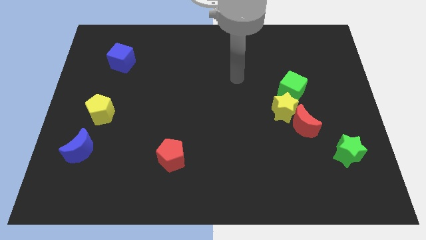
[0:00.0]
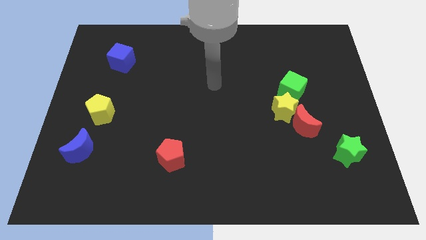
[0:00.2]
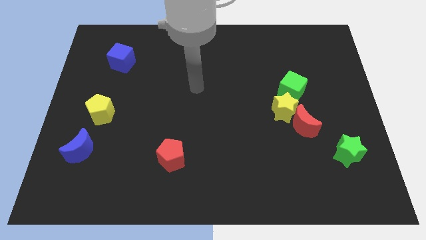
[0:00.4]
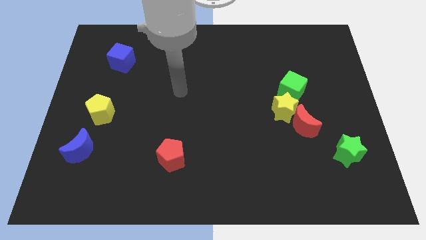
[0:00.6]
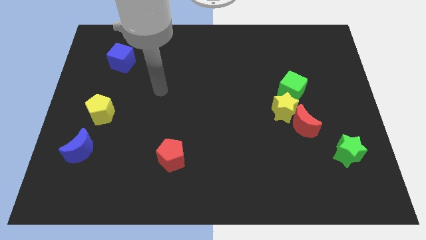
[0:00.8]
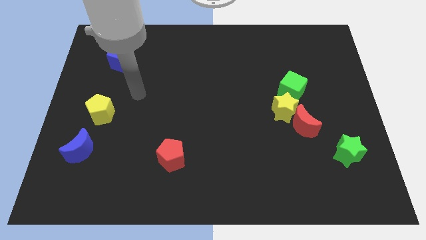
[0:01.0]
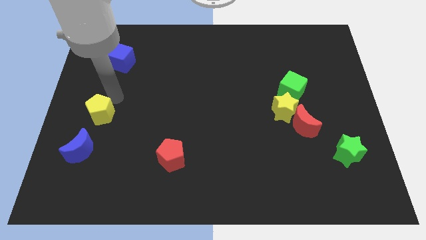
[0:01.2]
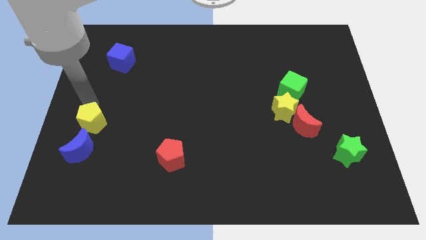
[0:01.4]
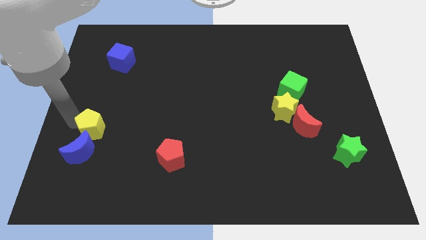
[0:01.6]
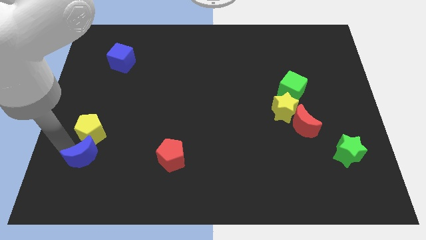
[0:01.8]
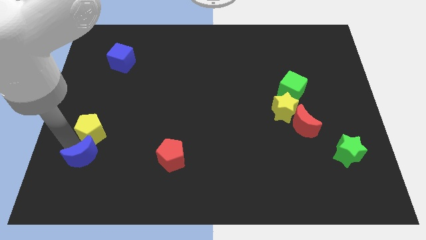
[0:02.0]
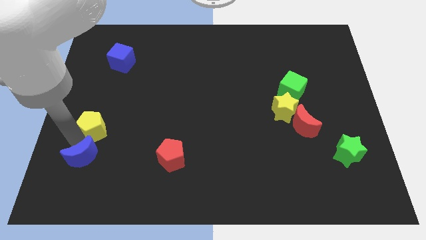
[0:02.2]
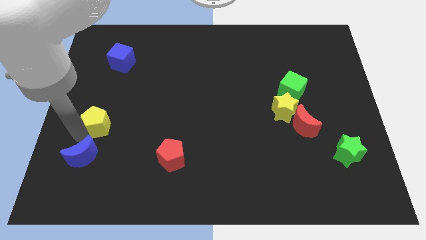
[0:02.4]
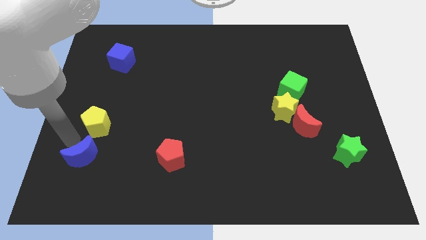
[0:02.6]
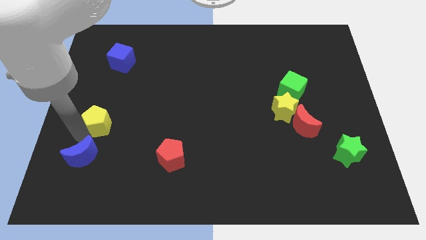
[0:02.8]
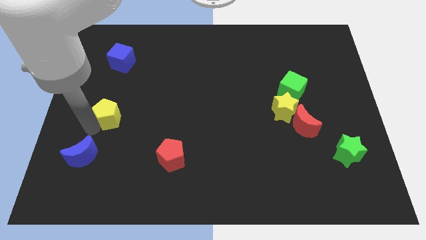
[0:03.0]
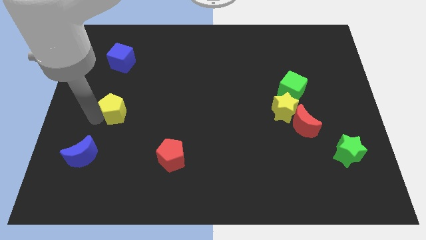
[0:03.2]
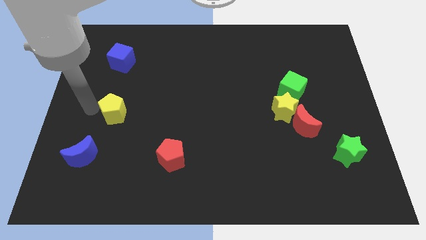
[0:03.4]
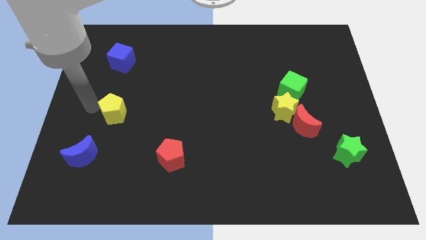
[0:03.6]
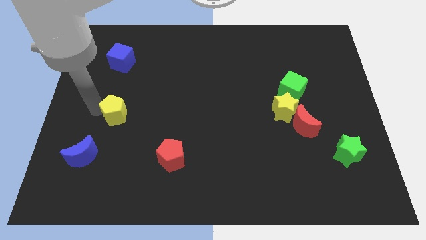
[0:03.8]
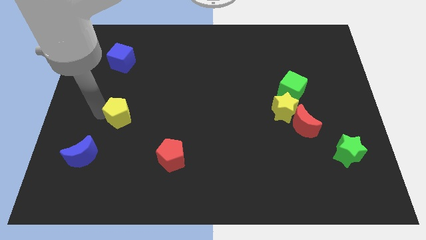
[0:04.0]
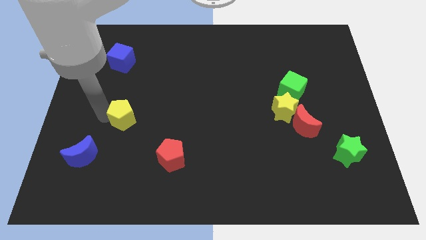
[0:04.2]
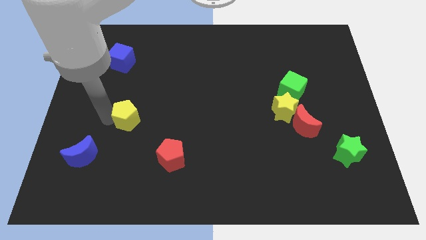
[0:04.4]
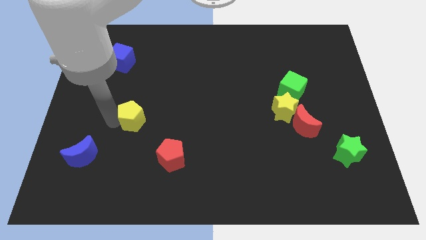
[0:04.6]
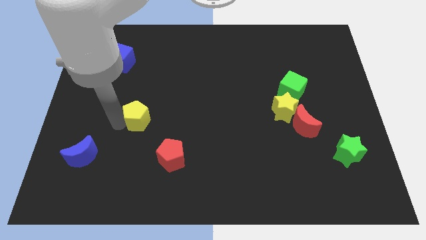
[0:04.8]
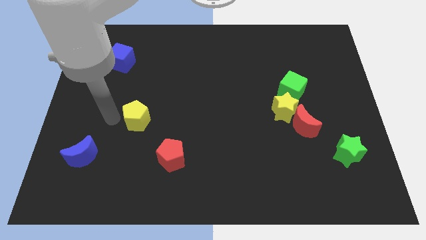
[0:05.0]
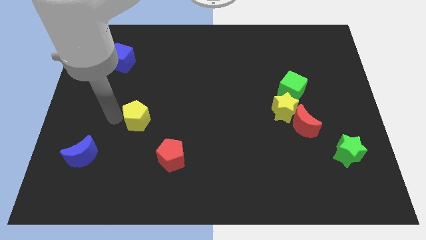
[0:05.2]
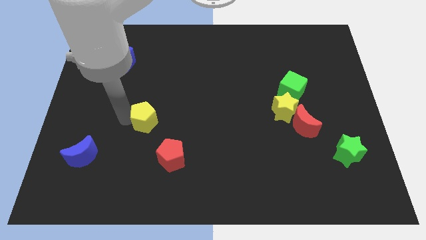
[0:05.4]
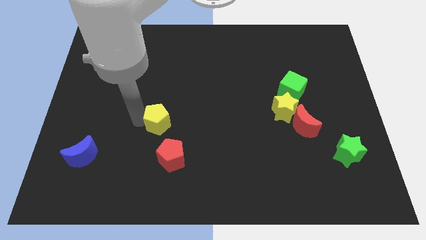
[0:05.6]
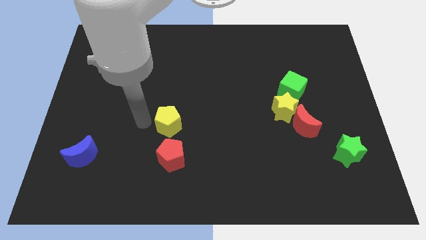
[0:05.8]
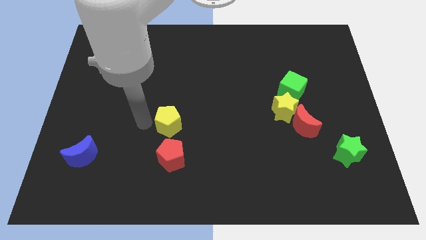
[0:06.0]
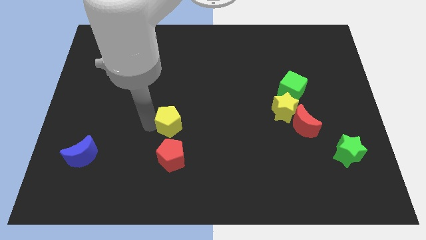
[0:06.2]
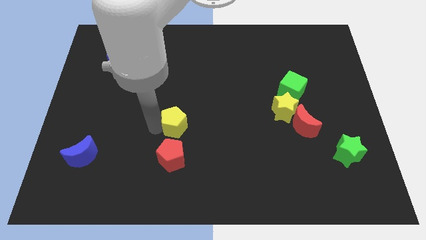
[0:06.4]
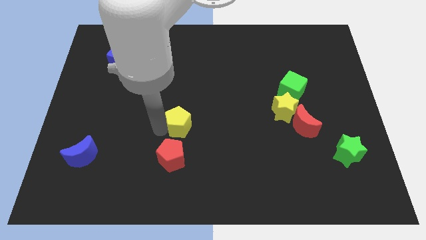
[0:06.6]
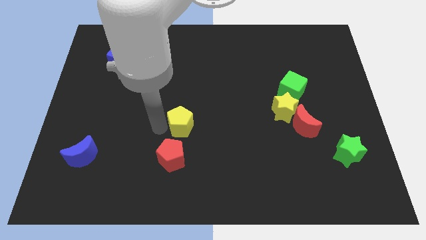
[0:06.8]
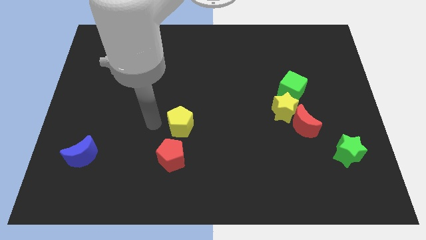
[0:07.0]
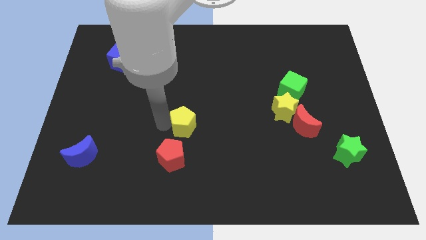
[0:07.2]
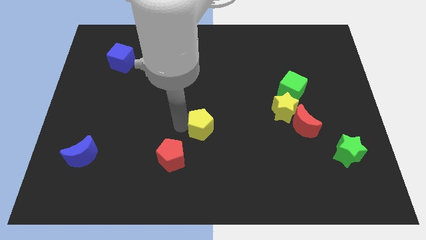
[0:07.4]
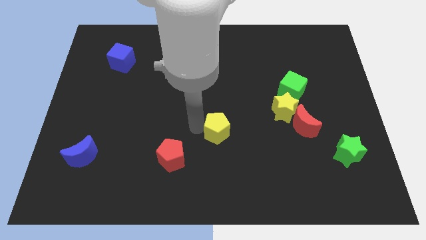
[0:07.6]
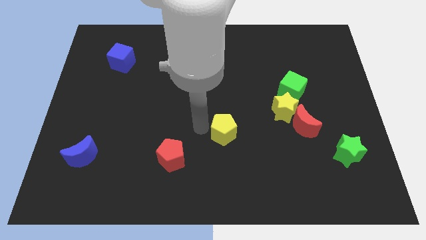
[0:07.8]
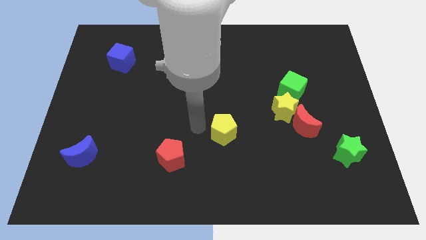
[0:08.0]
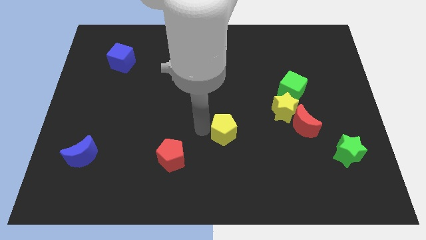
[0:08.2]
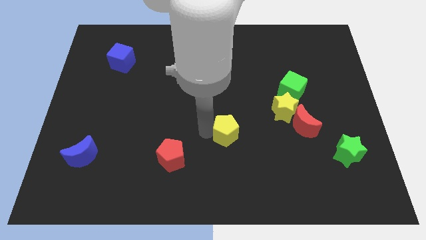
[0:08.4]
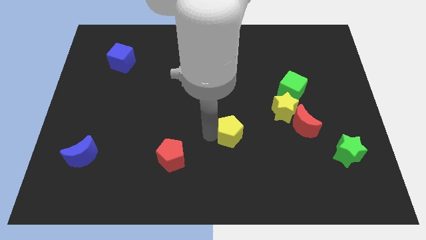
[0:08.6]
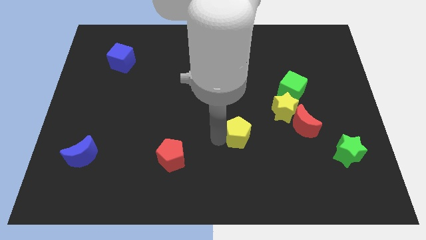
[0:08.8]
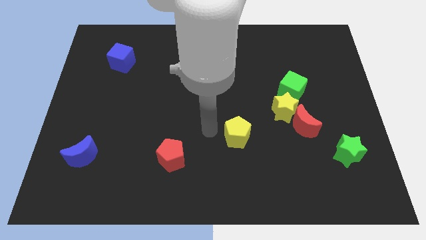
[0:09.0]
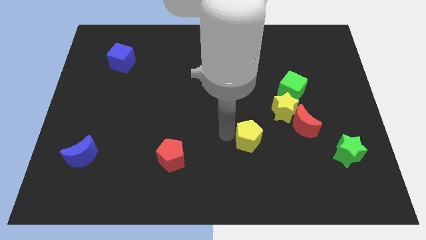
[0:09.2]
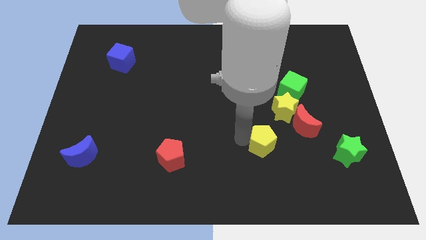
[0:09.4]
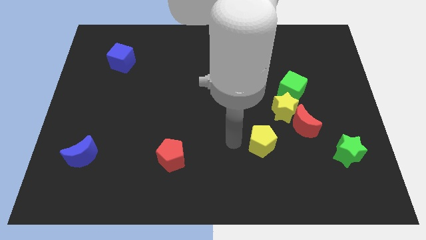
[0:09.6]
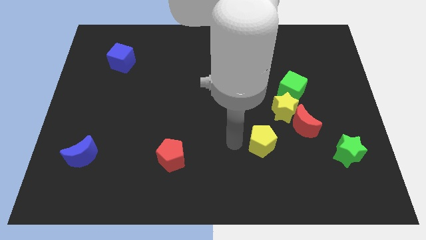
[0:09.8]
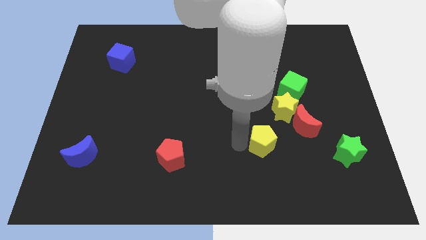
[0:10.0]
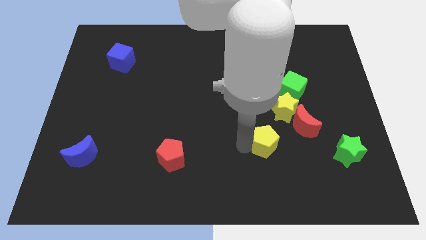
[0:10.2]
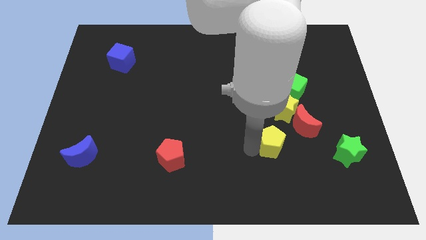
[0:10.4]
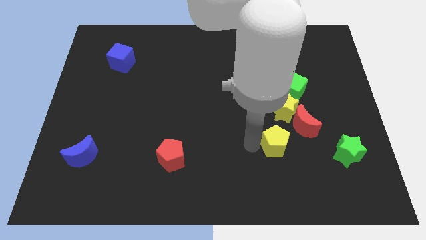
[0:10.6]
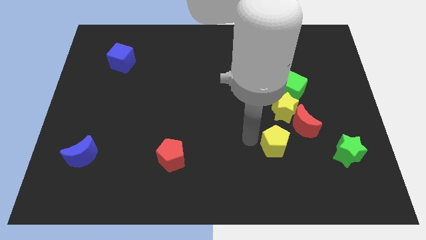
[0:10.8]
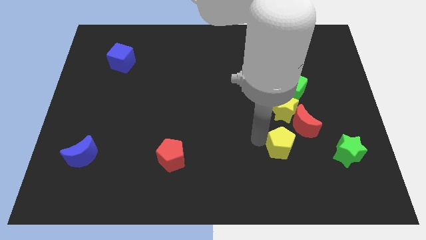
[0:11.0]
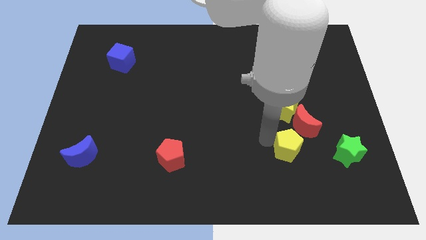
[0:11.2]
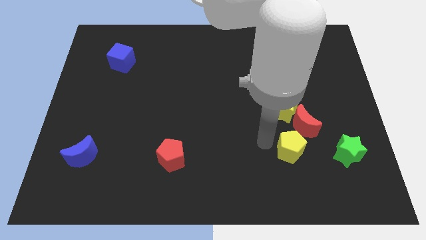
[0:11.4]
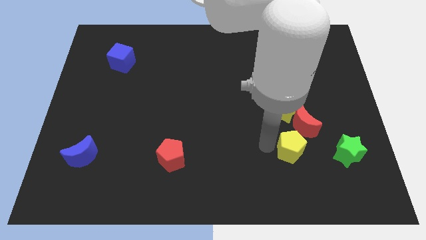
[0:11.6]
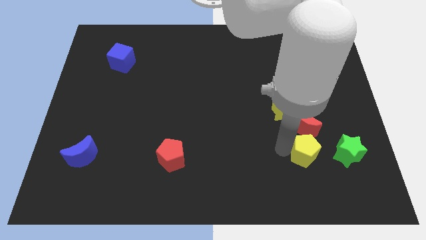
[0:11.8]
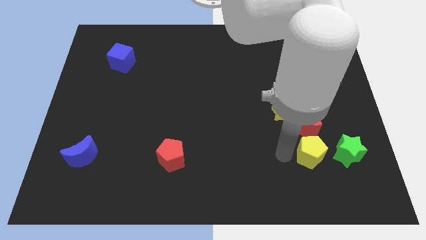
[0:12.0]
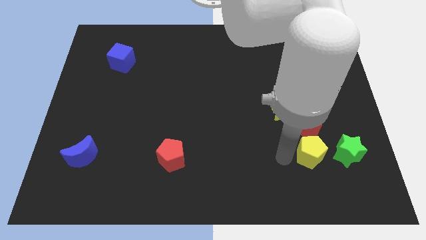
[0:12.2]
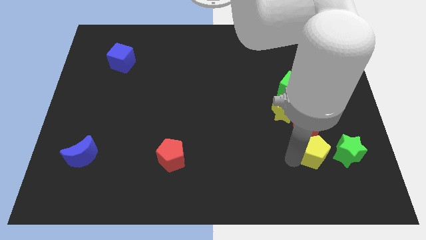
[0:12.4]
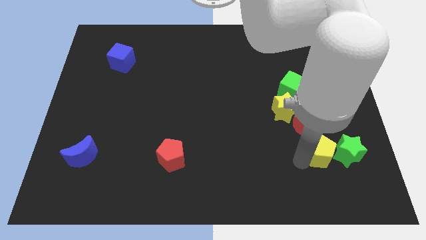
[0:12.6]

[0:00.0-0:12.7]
move the yellow pentagon next to the green star
